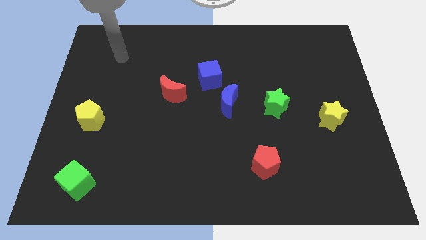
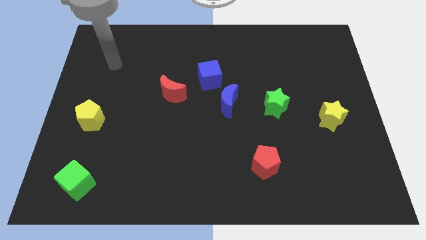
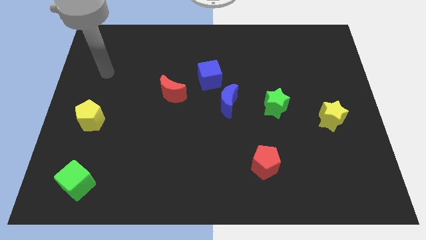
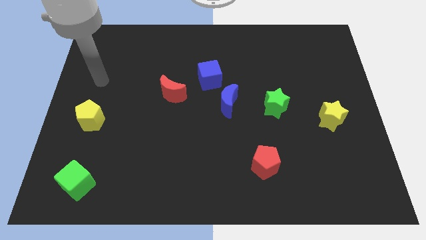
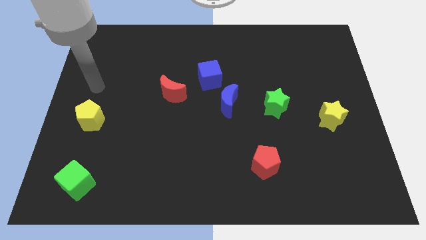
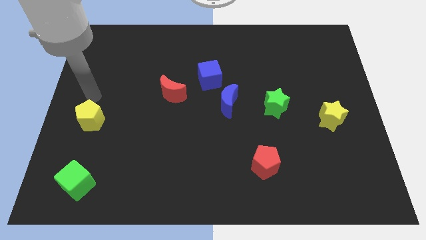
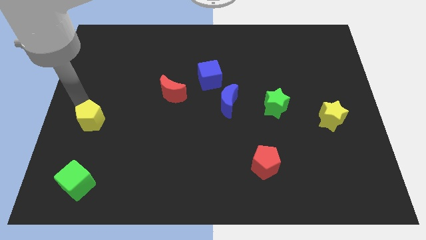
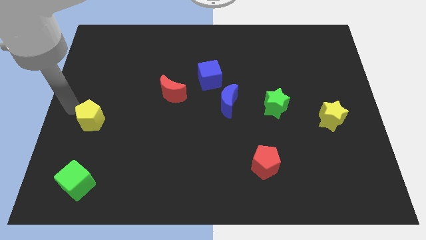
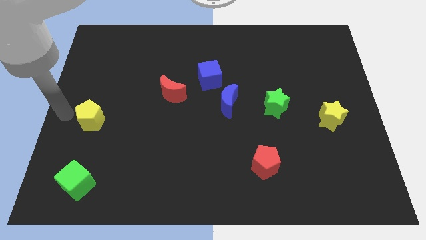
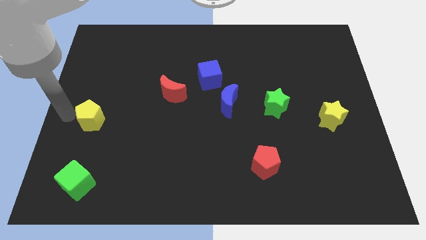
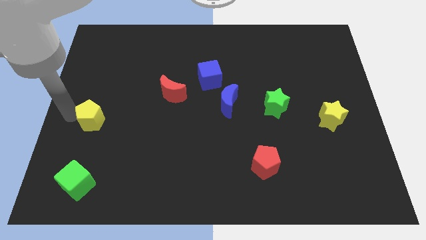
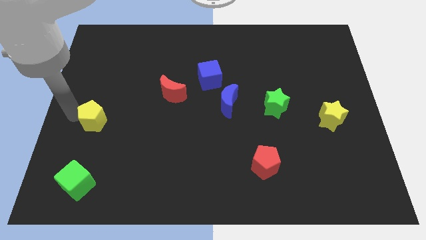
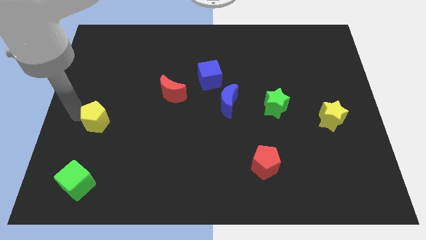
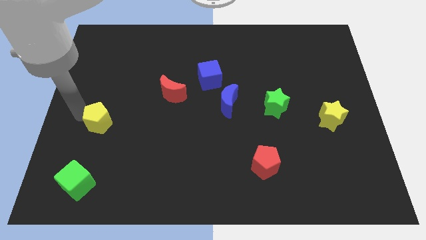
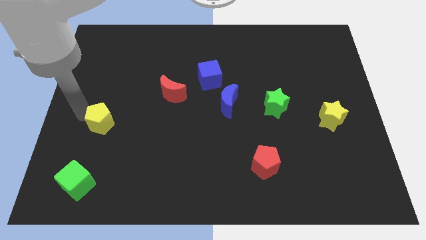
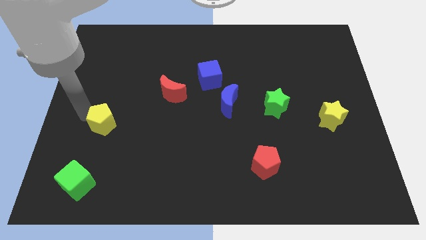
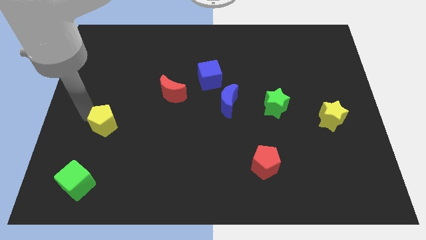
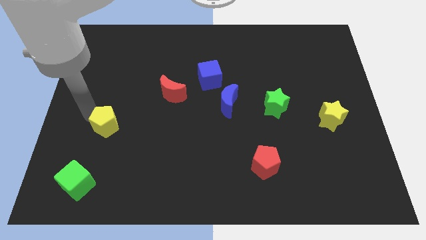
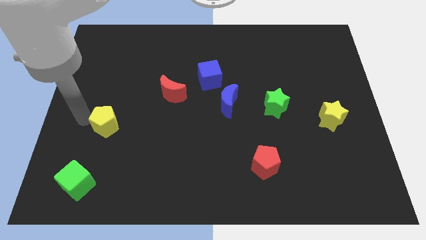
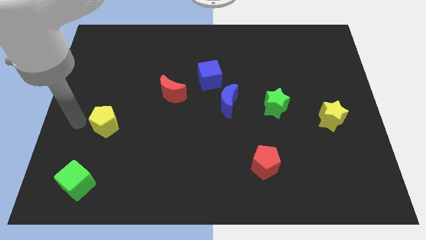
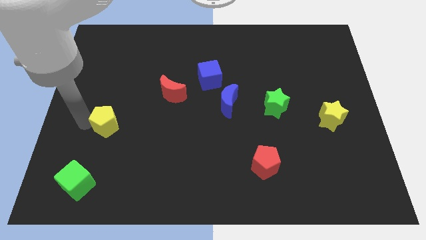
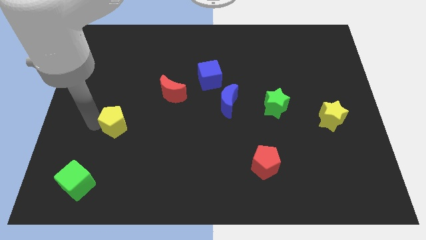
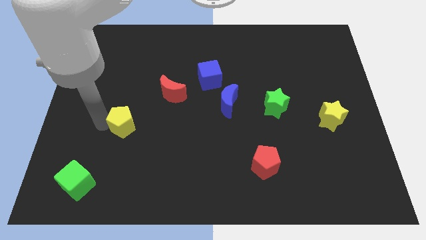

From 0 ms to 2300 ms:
slightly move the yellow pentagon right

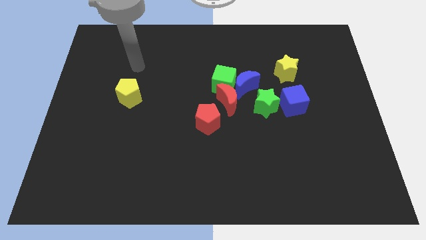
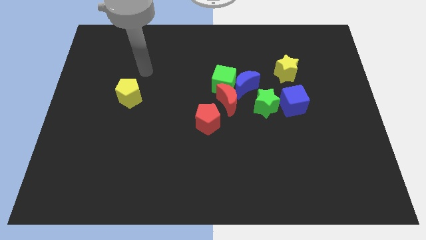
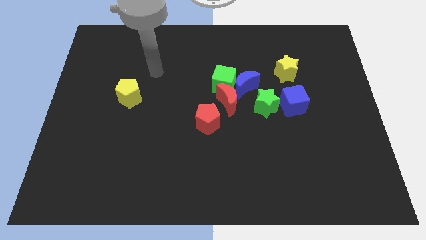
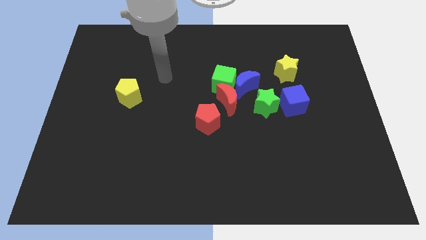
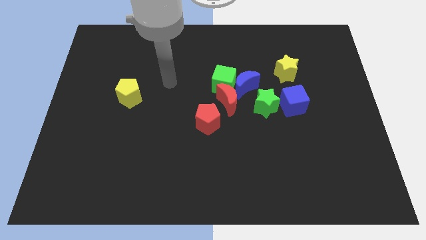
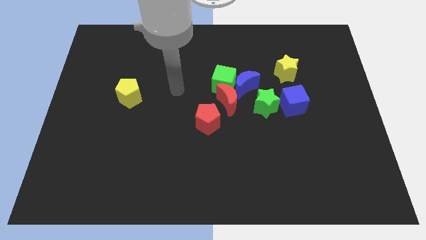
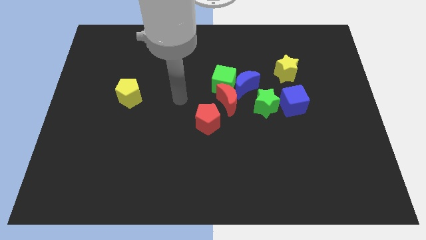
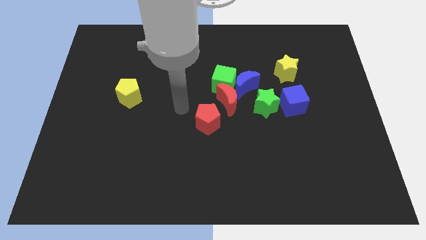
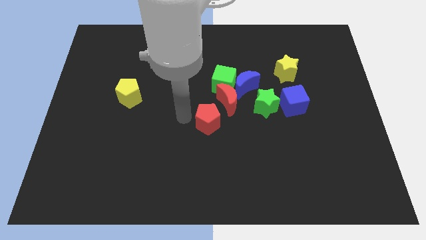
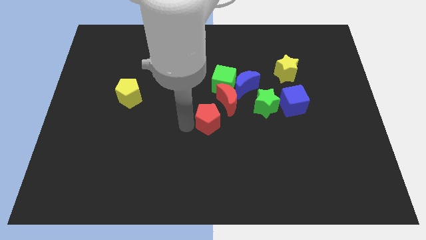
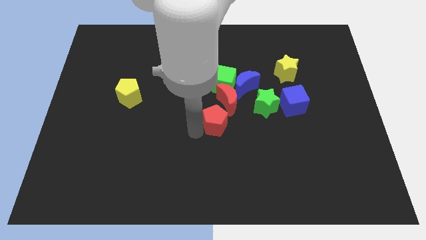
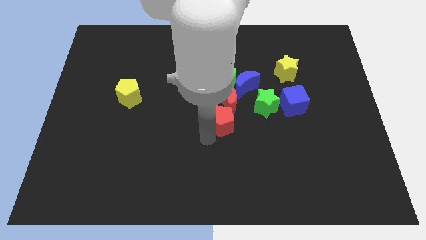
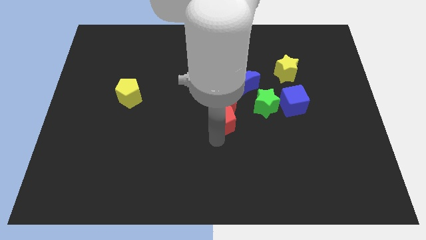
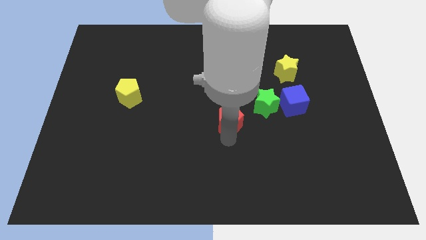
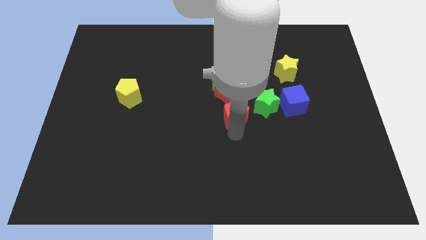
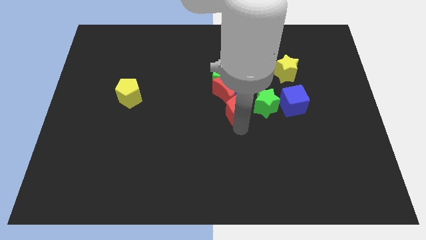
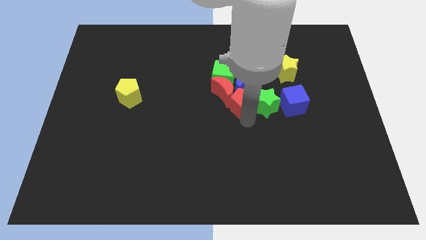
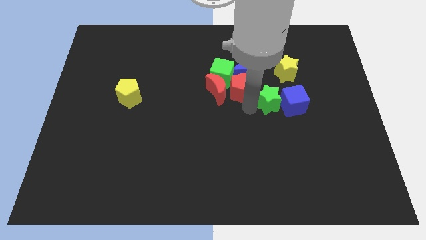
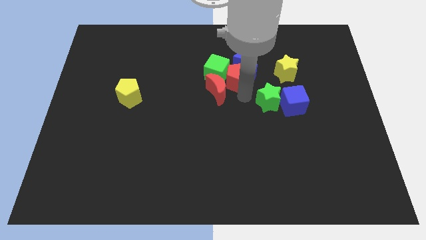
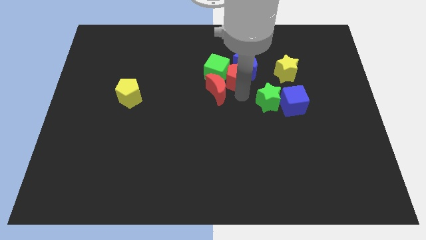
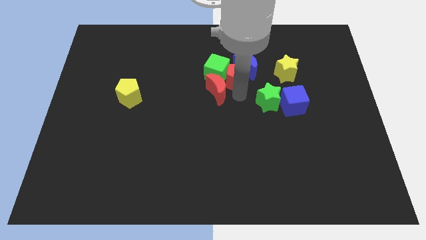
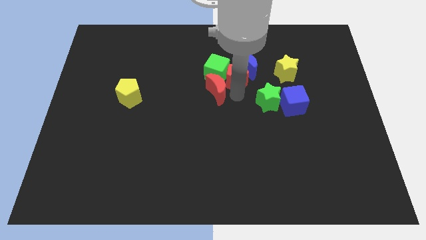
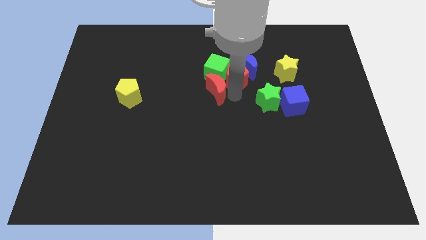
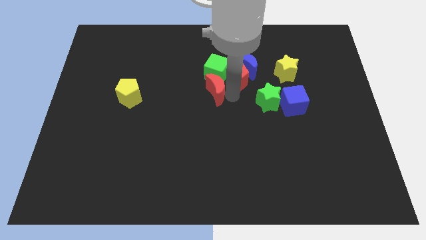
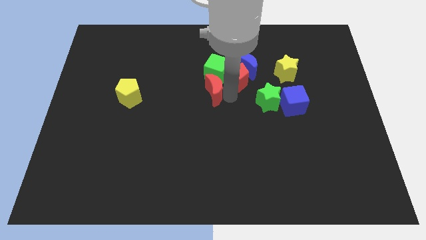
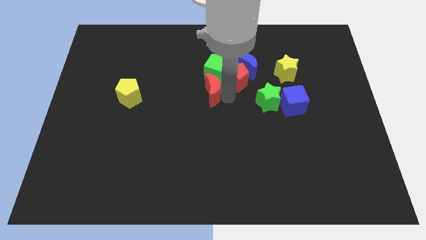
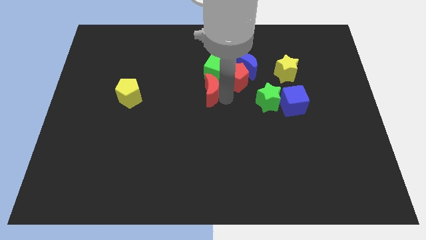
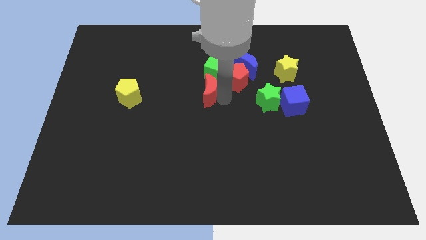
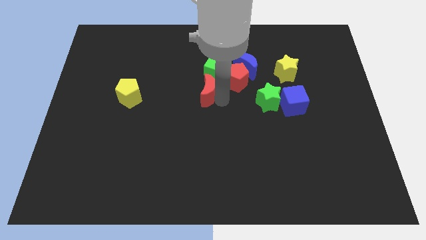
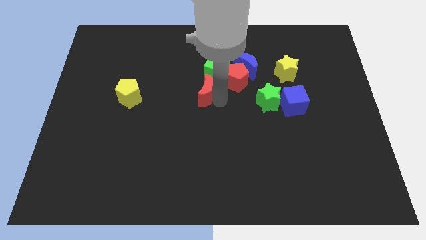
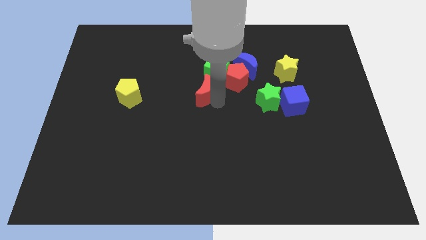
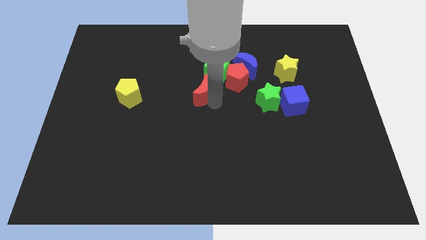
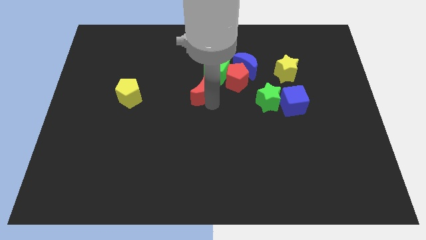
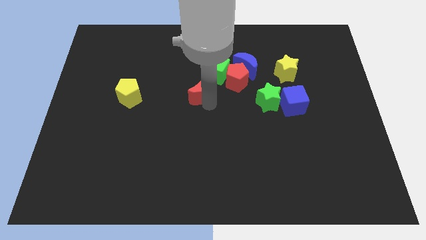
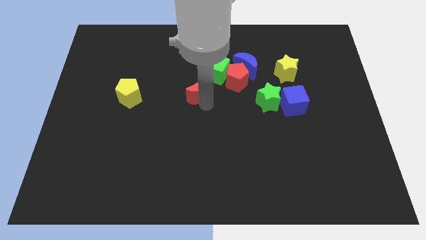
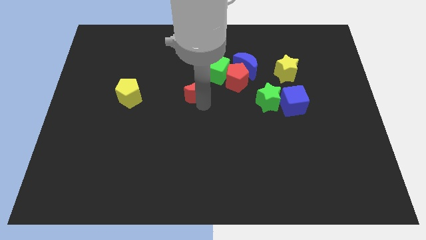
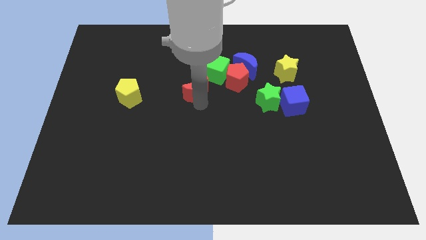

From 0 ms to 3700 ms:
push the red moon a little bit upwards and then to the left

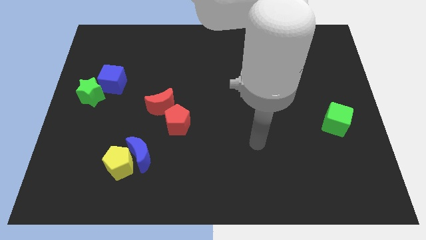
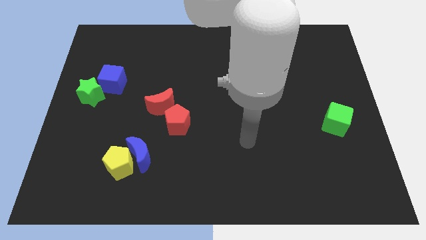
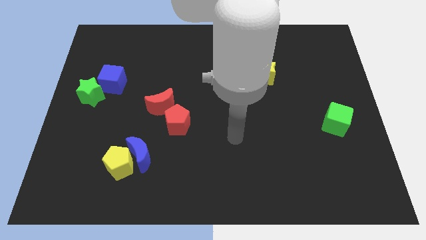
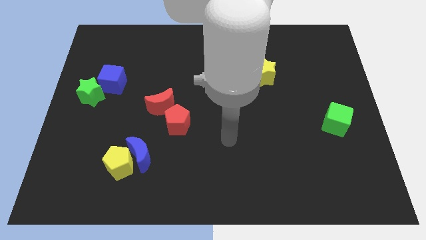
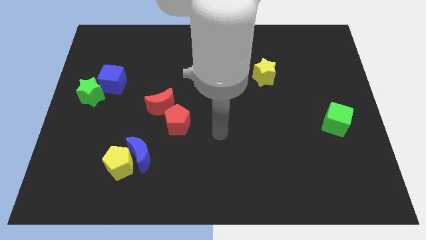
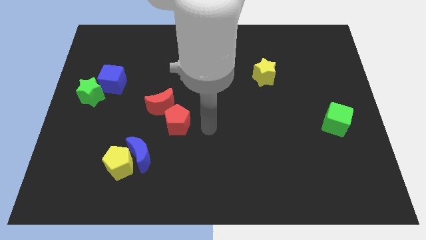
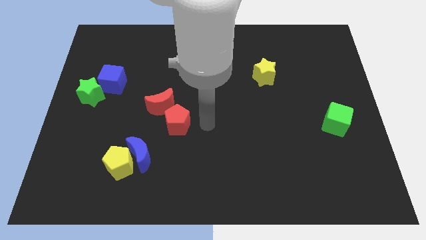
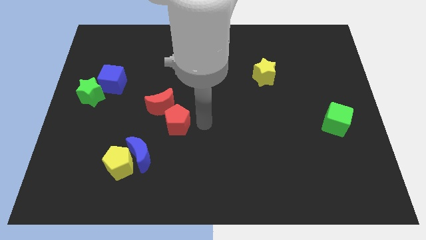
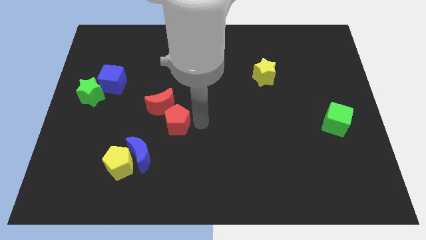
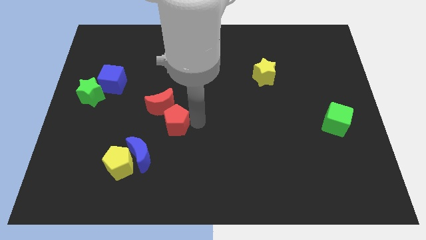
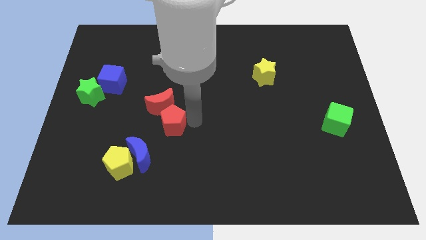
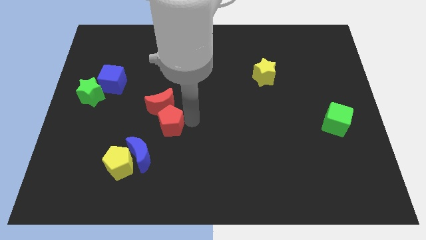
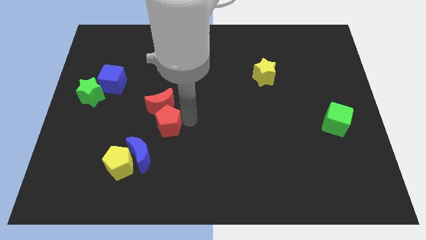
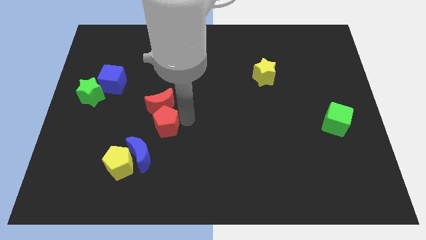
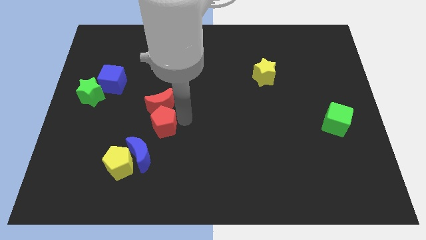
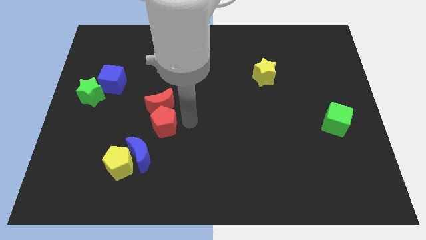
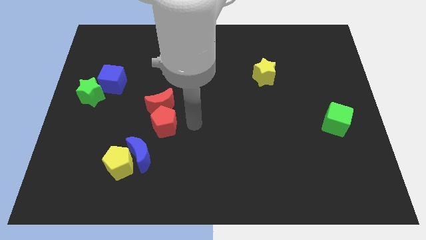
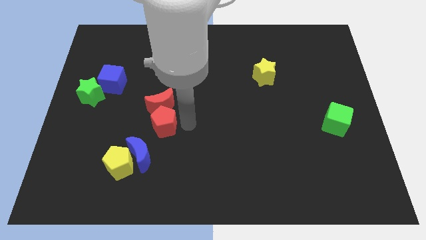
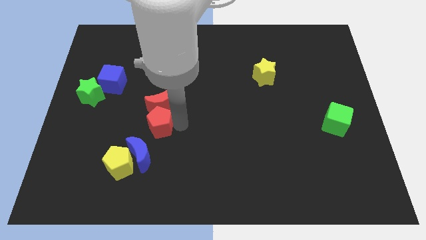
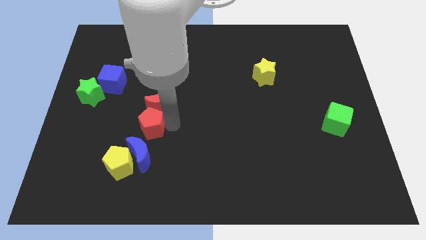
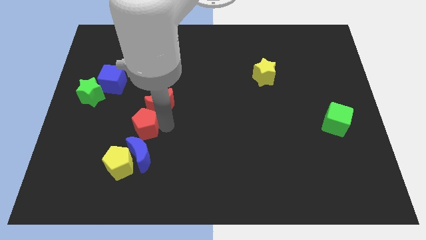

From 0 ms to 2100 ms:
slide the red pentagon somewhat to the left
